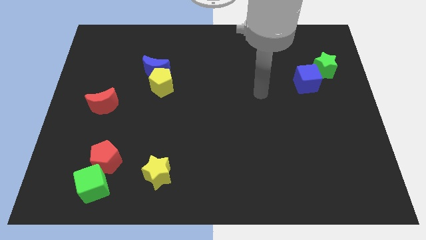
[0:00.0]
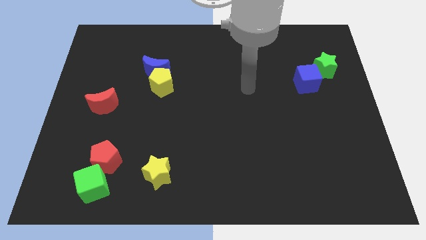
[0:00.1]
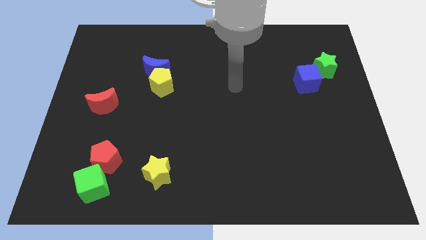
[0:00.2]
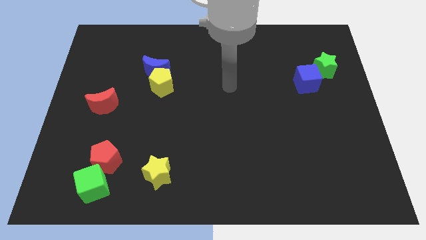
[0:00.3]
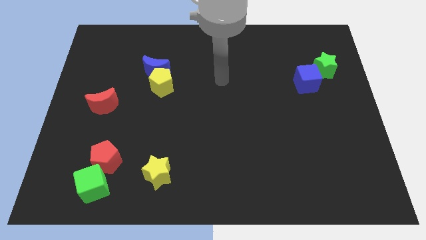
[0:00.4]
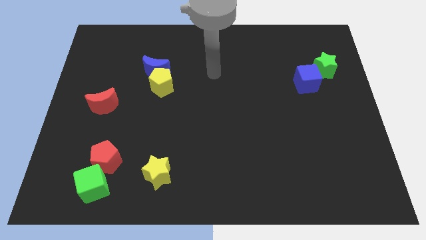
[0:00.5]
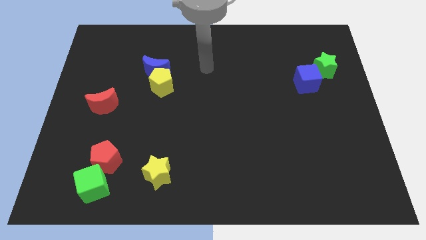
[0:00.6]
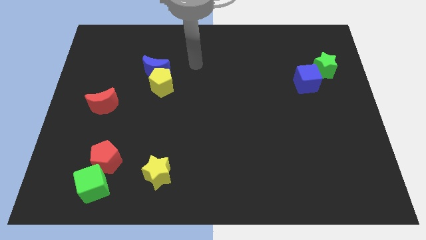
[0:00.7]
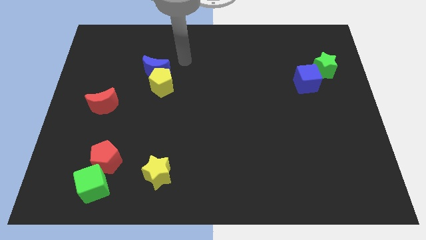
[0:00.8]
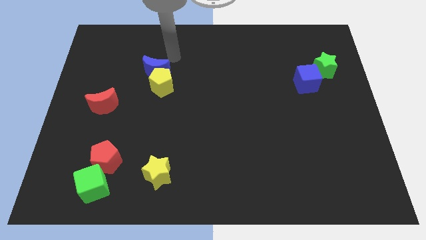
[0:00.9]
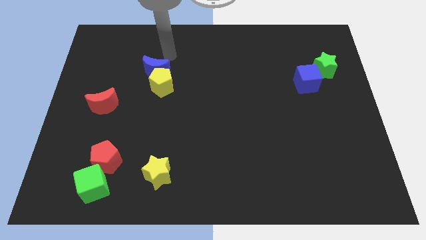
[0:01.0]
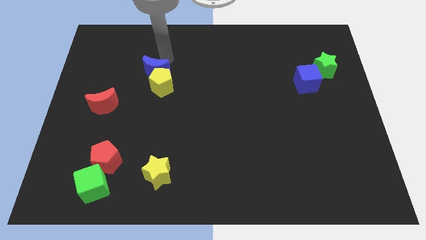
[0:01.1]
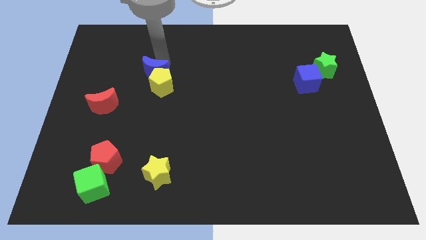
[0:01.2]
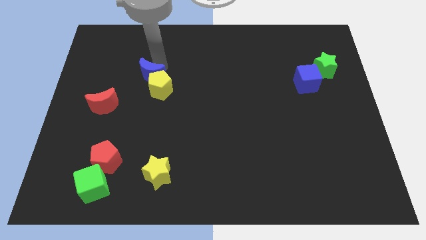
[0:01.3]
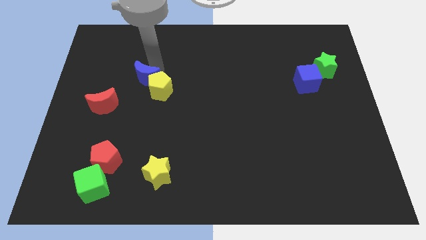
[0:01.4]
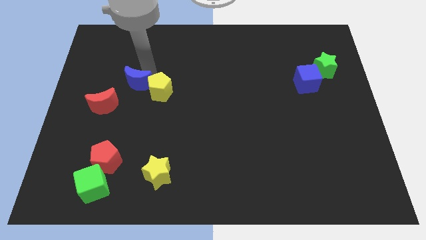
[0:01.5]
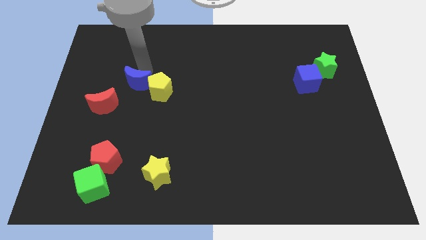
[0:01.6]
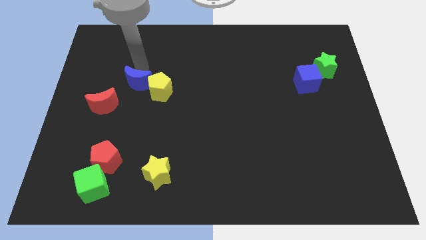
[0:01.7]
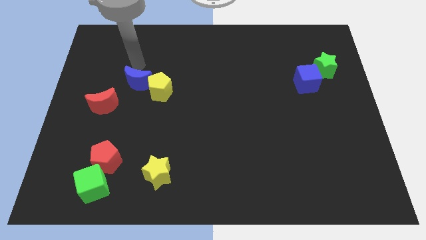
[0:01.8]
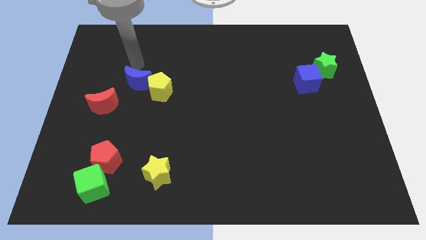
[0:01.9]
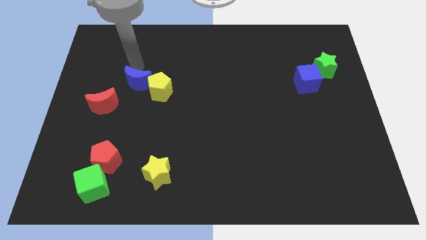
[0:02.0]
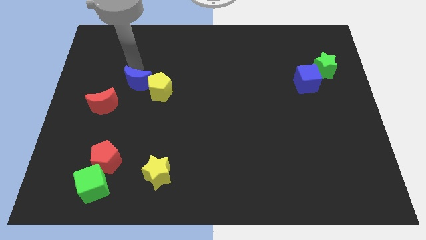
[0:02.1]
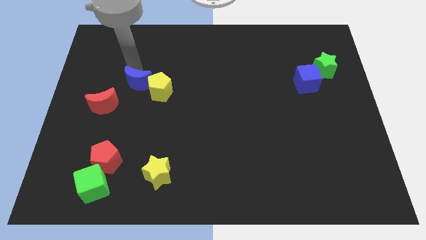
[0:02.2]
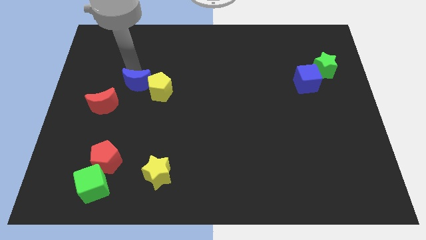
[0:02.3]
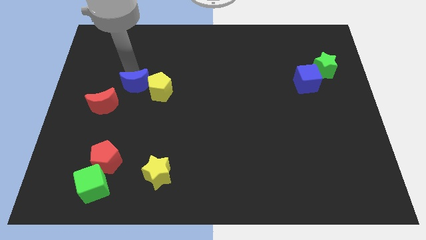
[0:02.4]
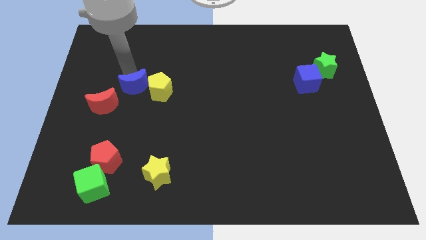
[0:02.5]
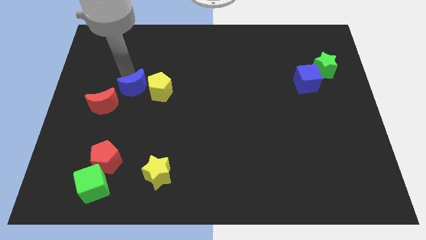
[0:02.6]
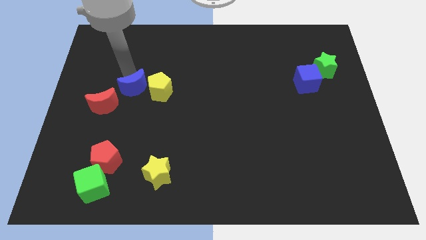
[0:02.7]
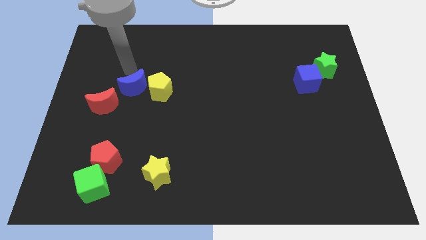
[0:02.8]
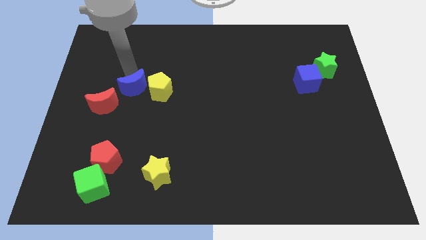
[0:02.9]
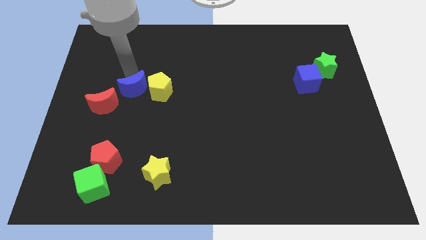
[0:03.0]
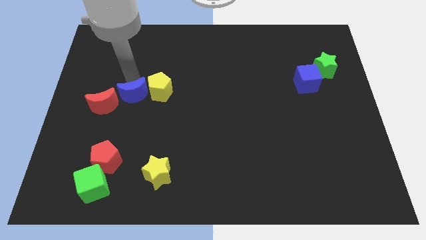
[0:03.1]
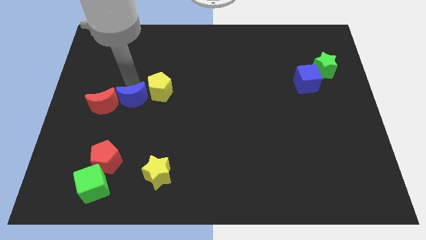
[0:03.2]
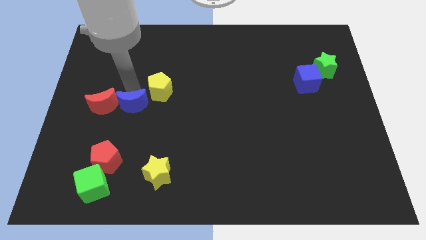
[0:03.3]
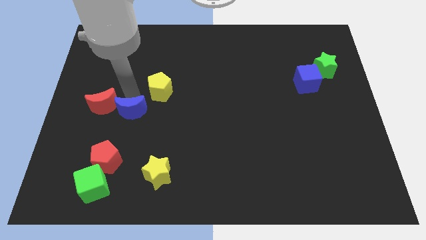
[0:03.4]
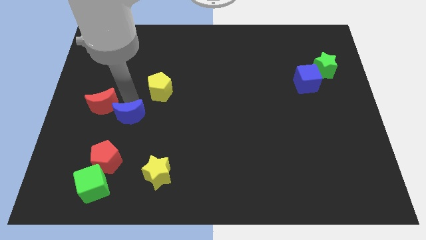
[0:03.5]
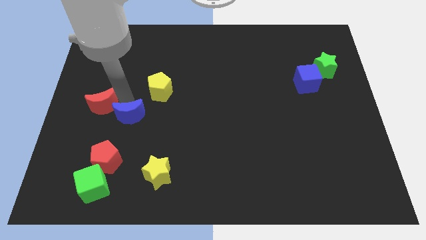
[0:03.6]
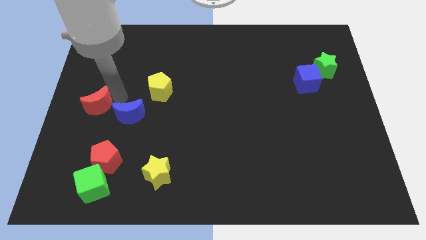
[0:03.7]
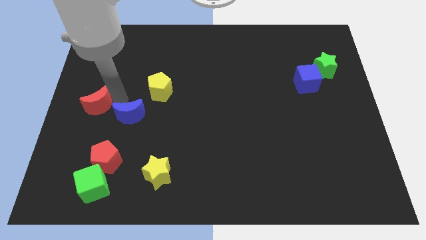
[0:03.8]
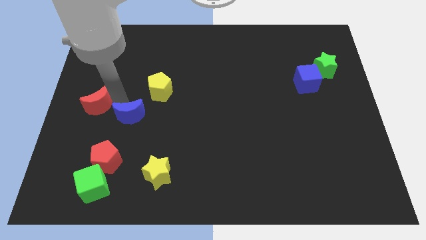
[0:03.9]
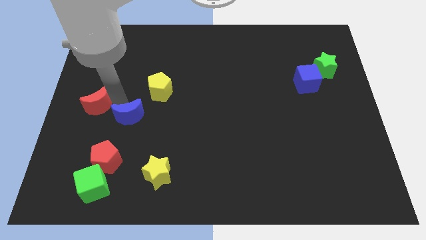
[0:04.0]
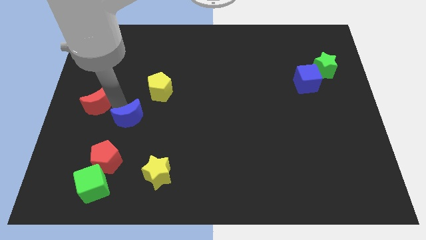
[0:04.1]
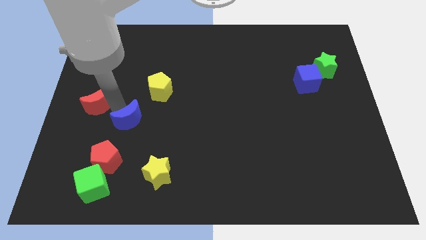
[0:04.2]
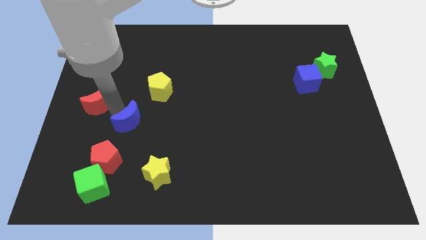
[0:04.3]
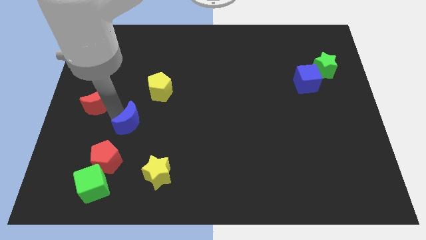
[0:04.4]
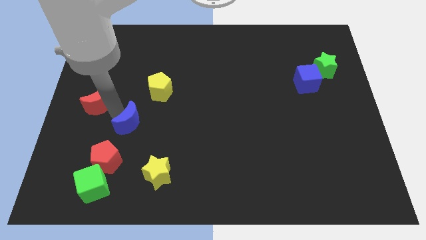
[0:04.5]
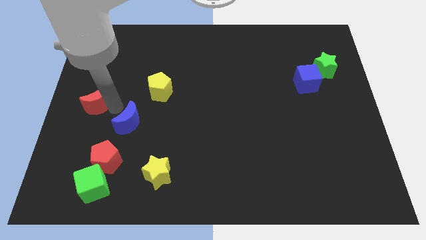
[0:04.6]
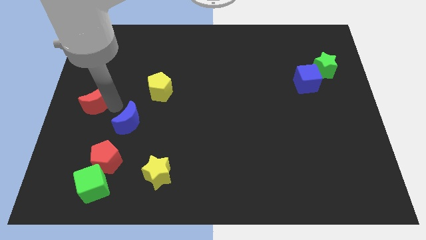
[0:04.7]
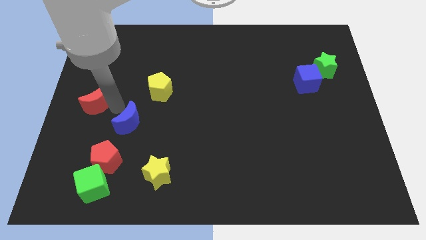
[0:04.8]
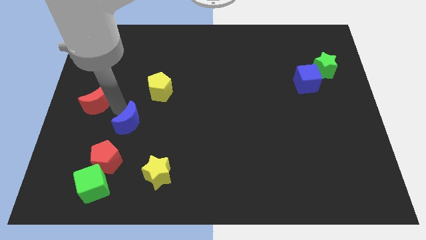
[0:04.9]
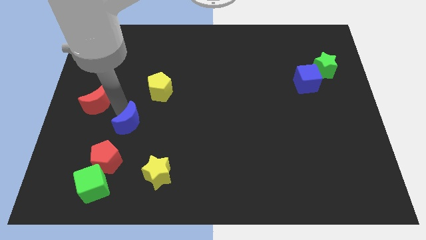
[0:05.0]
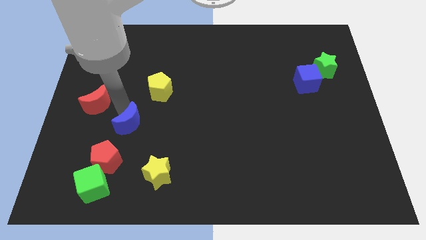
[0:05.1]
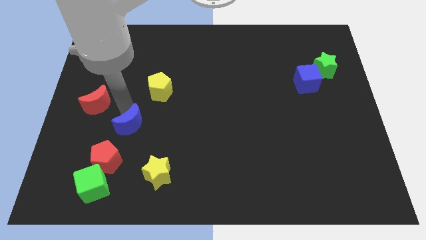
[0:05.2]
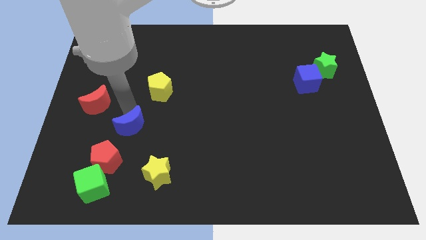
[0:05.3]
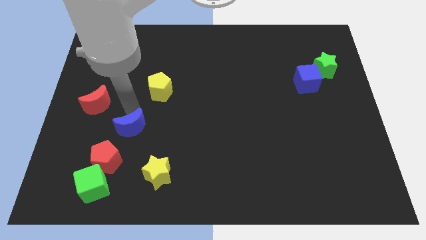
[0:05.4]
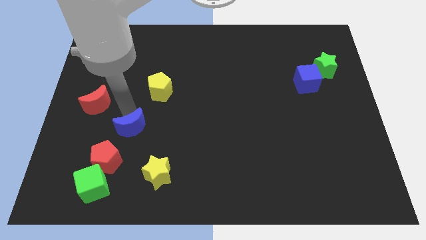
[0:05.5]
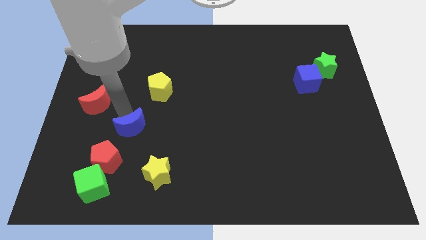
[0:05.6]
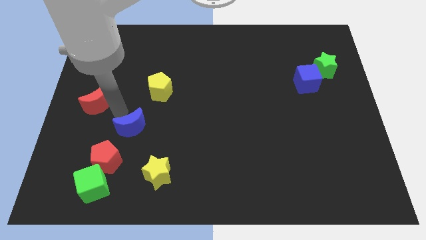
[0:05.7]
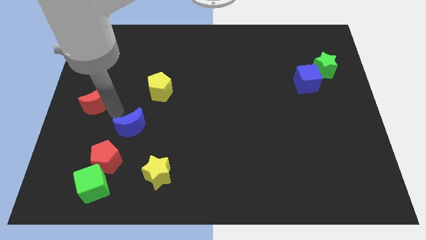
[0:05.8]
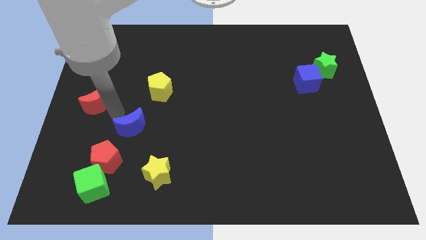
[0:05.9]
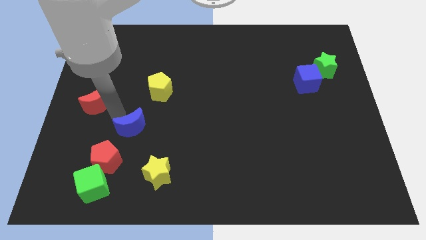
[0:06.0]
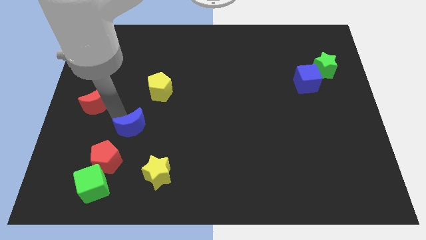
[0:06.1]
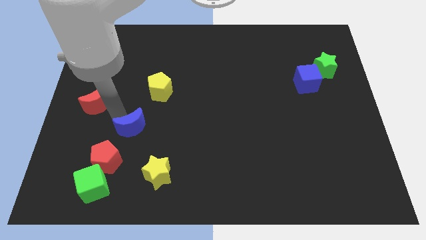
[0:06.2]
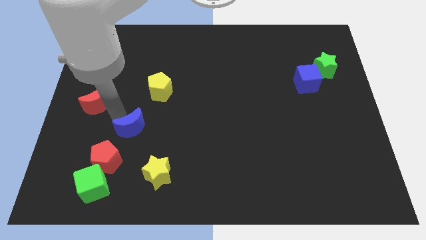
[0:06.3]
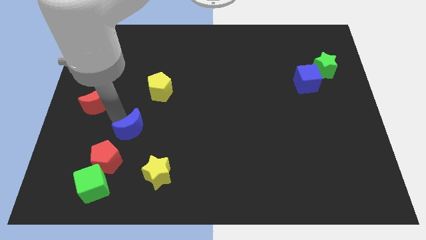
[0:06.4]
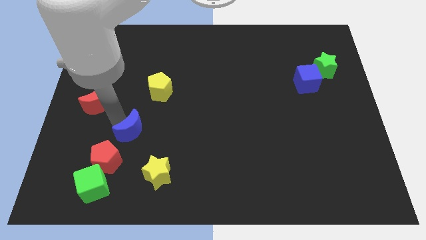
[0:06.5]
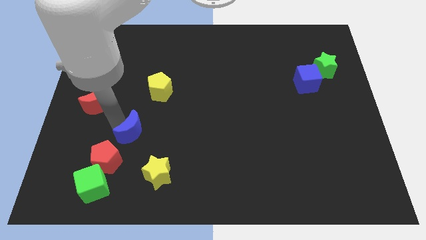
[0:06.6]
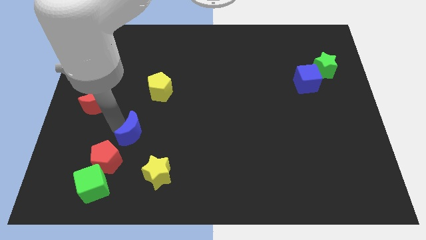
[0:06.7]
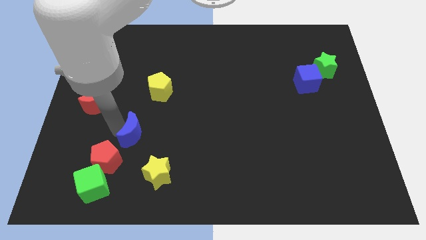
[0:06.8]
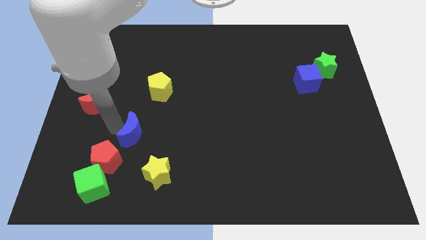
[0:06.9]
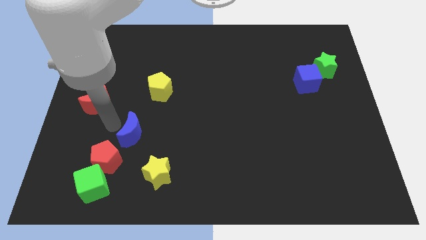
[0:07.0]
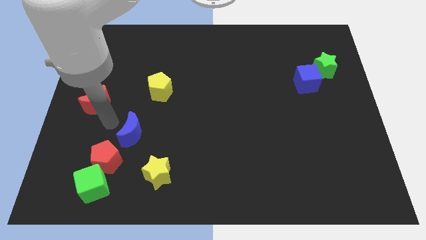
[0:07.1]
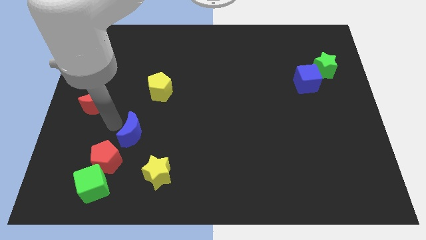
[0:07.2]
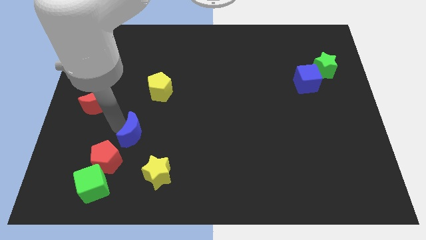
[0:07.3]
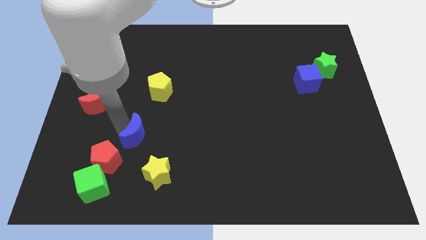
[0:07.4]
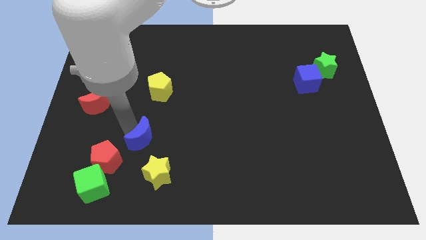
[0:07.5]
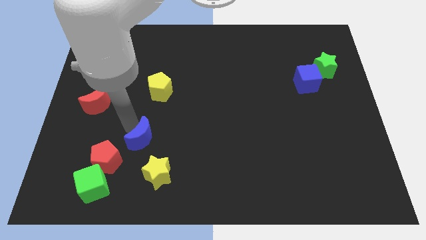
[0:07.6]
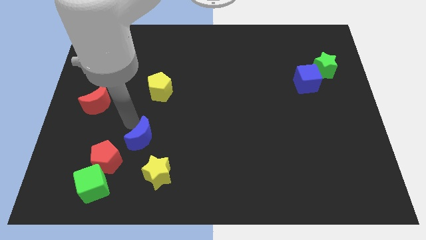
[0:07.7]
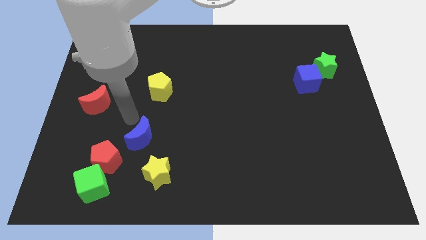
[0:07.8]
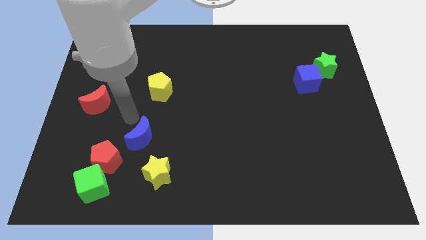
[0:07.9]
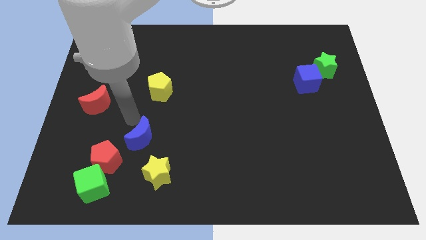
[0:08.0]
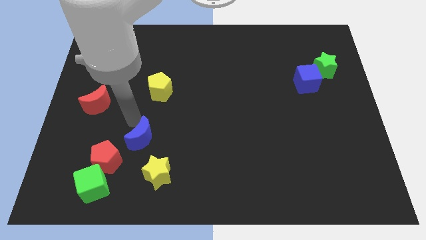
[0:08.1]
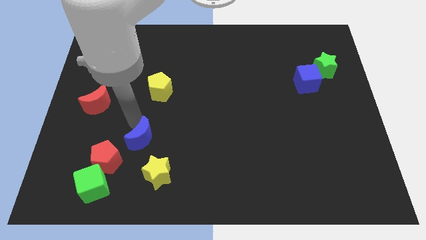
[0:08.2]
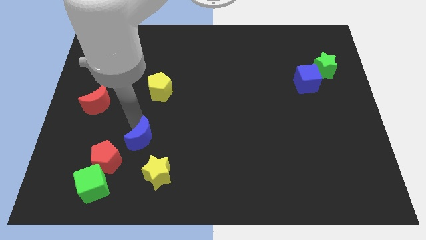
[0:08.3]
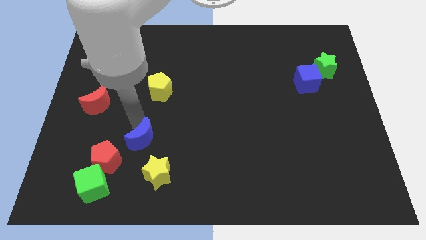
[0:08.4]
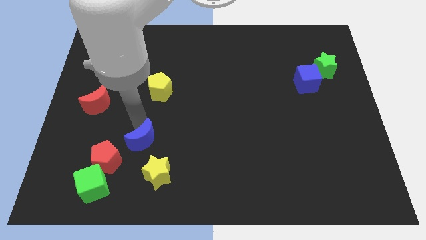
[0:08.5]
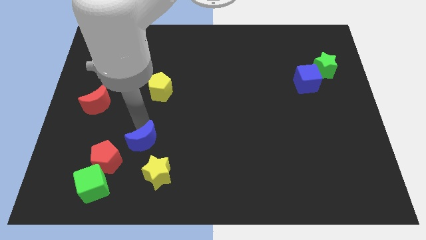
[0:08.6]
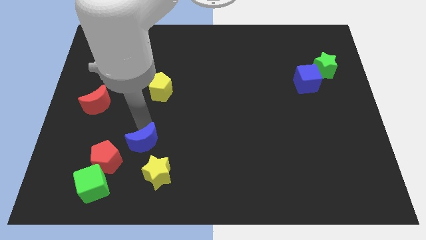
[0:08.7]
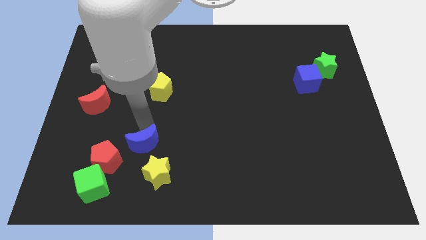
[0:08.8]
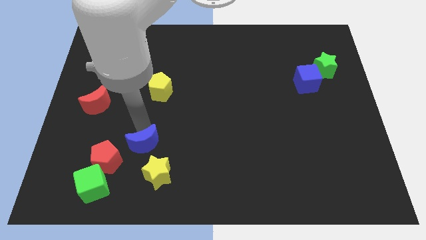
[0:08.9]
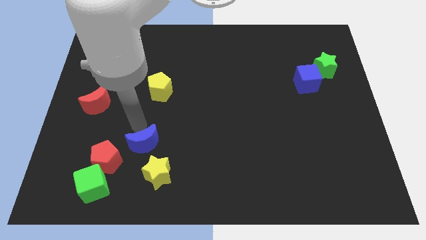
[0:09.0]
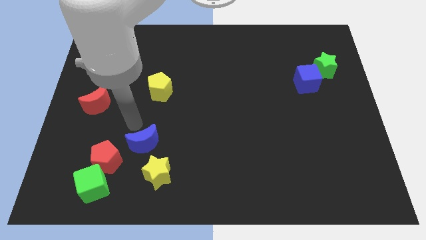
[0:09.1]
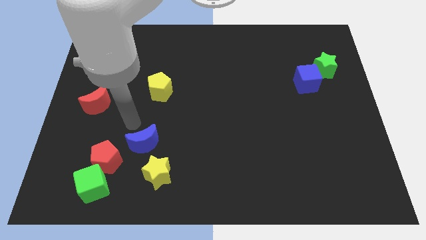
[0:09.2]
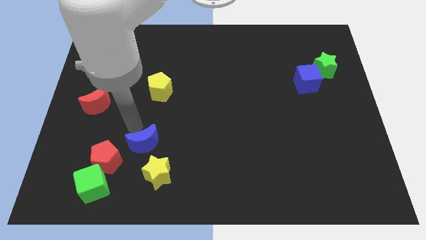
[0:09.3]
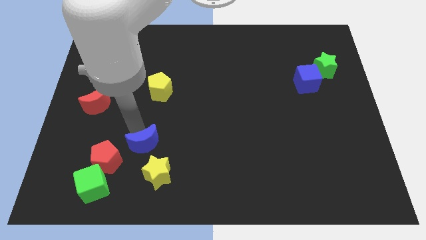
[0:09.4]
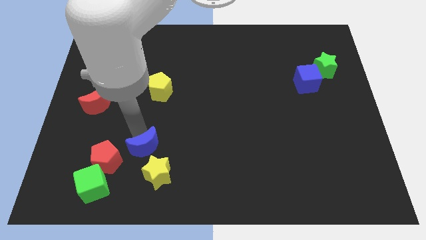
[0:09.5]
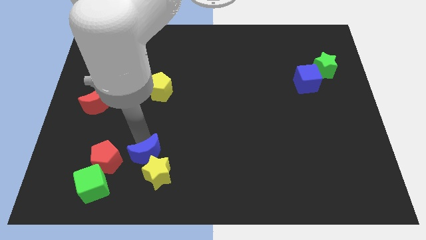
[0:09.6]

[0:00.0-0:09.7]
put the blue moon close to the yellow star
